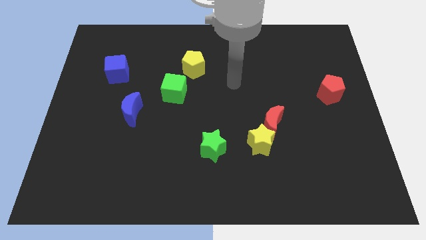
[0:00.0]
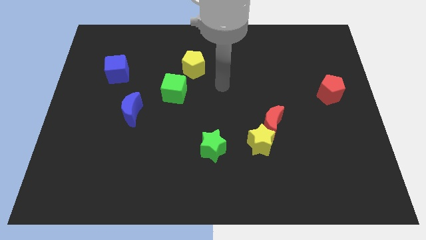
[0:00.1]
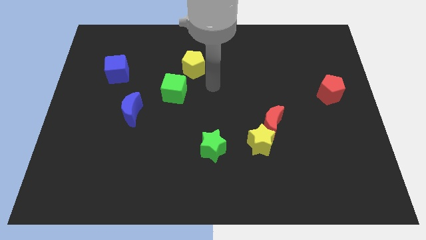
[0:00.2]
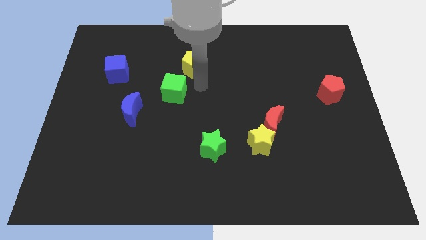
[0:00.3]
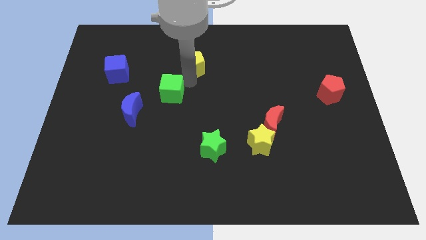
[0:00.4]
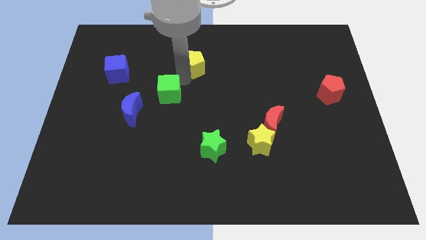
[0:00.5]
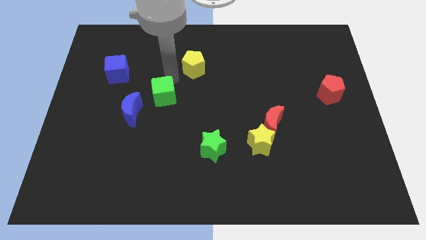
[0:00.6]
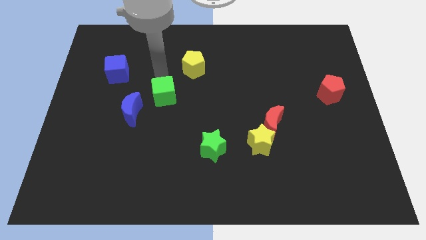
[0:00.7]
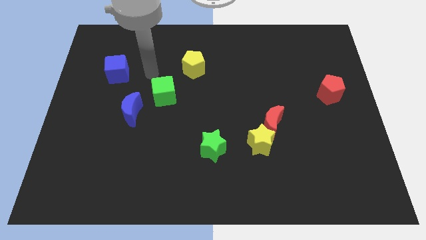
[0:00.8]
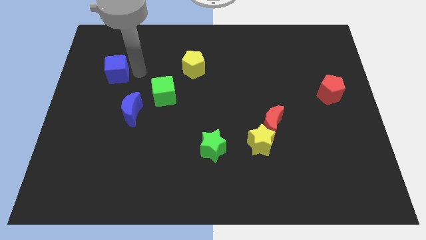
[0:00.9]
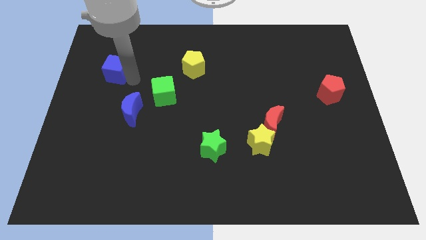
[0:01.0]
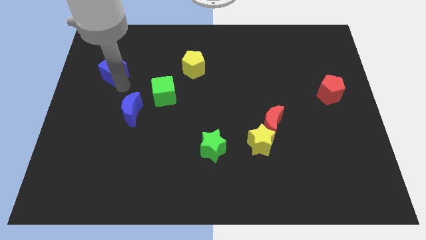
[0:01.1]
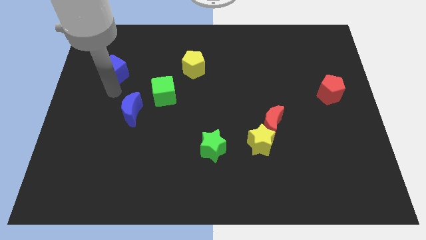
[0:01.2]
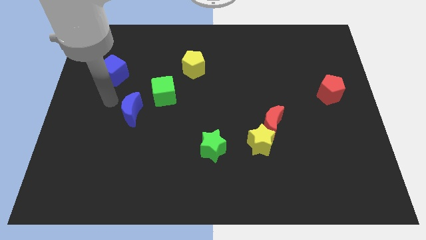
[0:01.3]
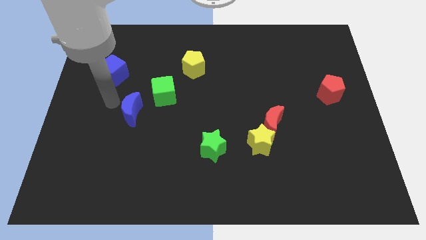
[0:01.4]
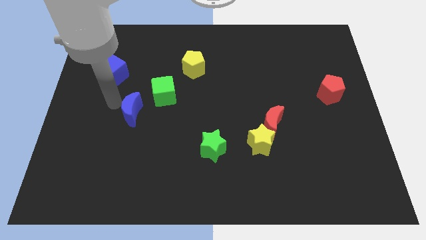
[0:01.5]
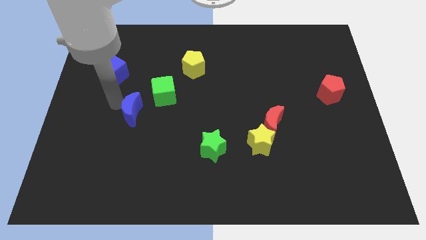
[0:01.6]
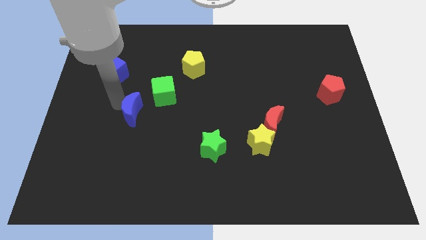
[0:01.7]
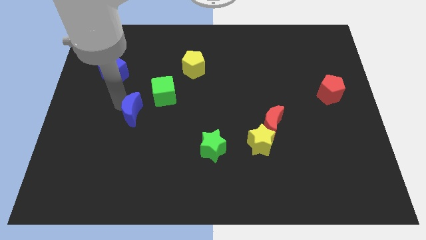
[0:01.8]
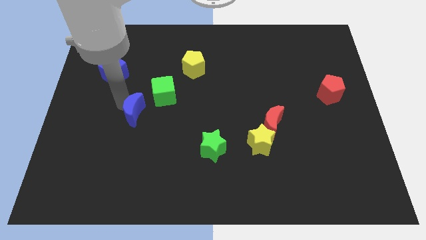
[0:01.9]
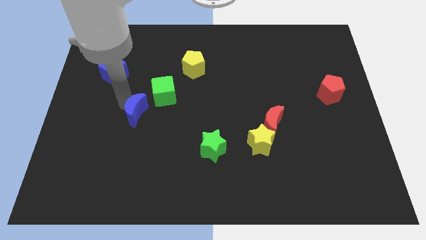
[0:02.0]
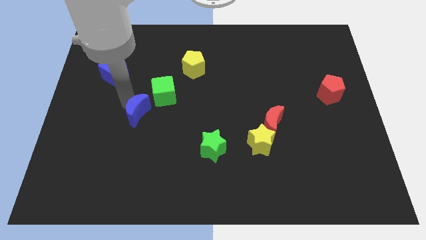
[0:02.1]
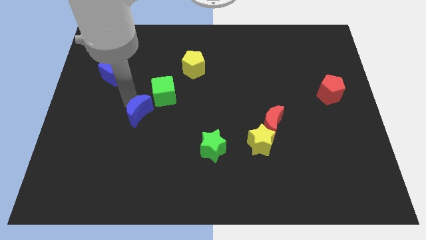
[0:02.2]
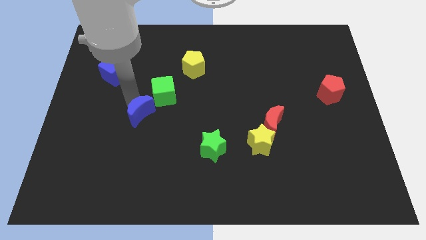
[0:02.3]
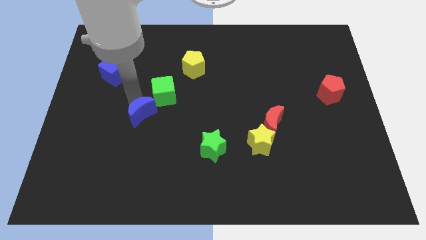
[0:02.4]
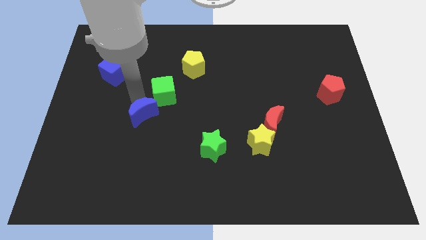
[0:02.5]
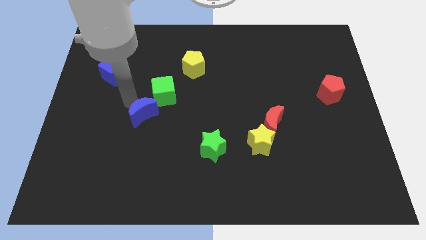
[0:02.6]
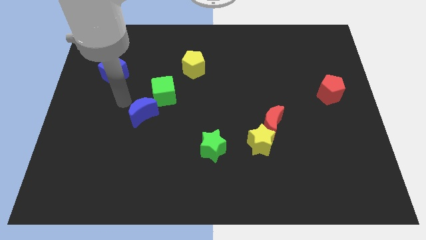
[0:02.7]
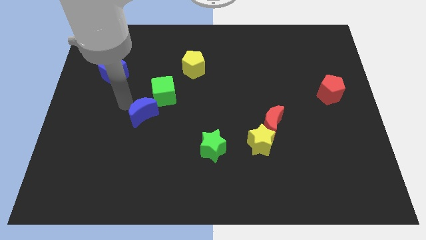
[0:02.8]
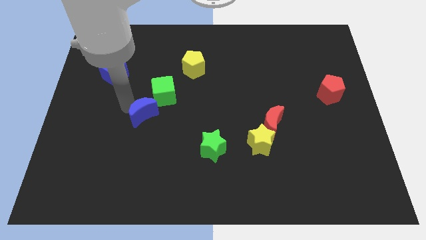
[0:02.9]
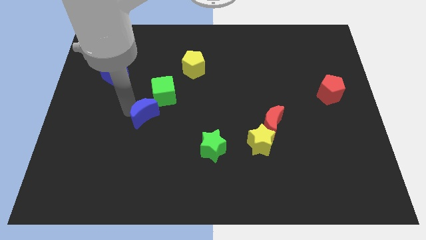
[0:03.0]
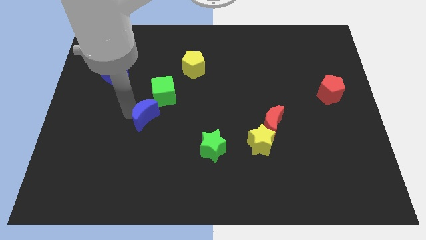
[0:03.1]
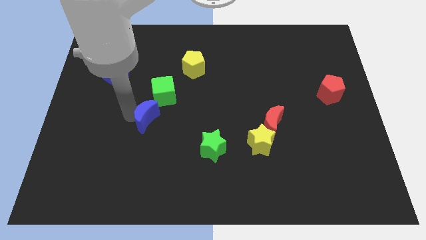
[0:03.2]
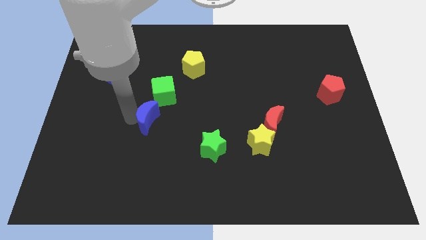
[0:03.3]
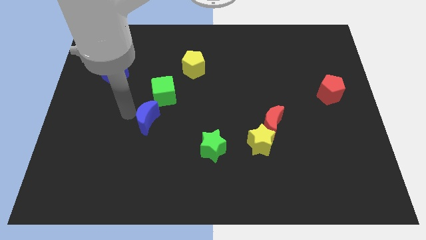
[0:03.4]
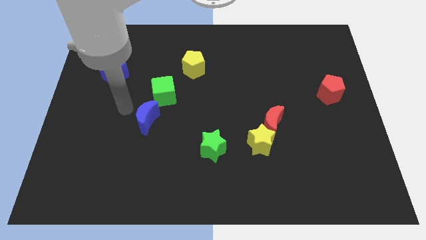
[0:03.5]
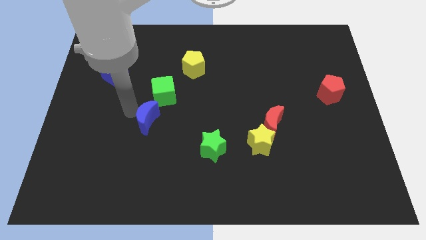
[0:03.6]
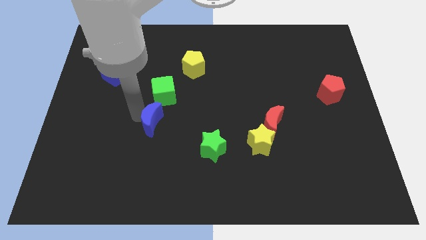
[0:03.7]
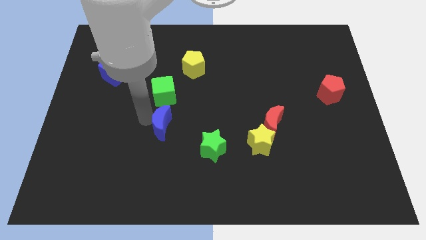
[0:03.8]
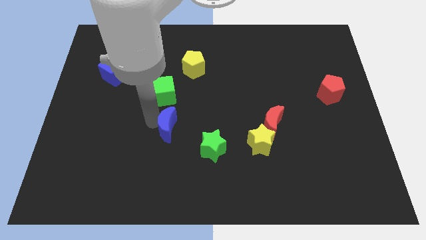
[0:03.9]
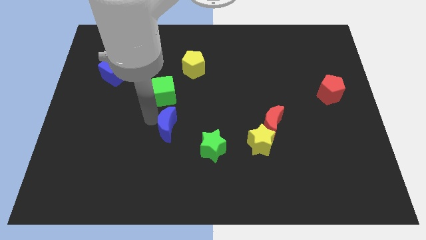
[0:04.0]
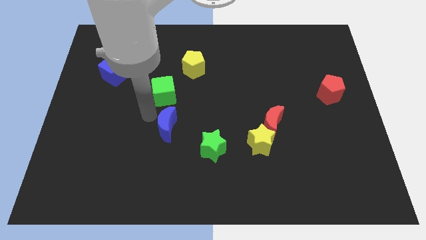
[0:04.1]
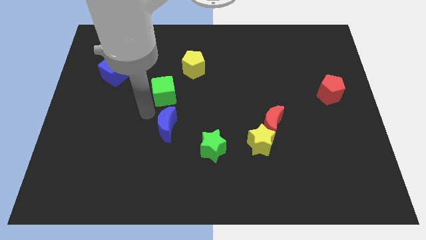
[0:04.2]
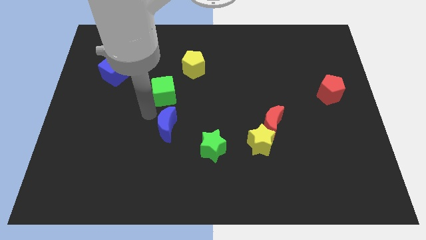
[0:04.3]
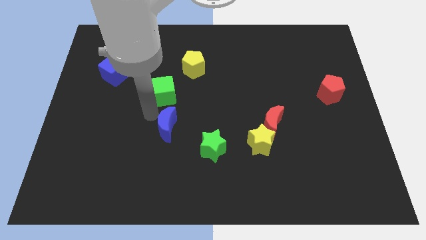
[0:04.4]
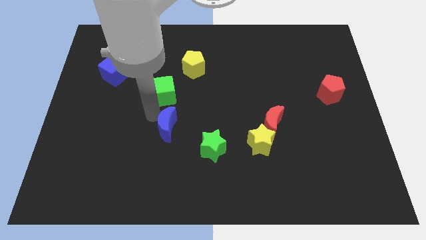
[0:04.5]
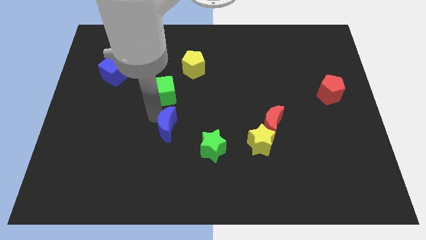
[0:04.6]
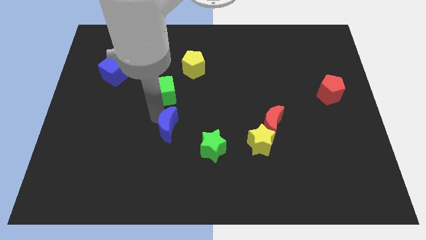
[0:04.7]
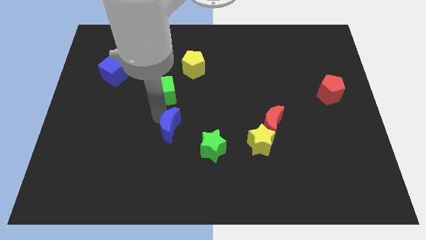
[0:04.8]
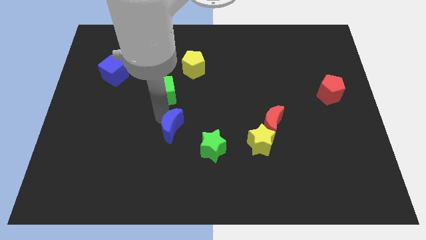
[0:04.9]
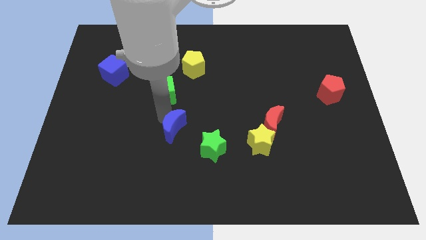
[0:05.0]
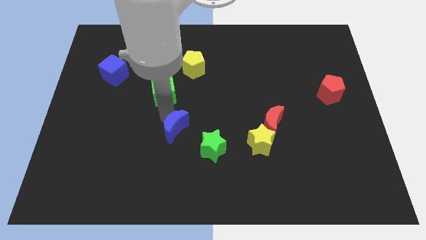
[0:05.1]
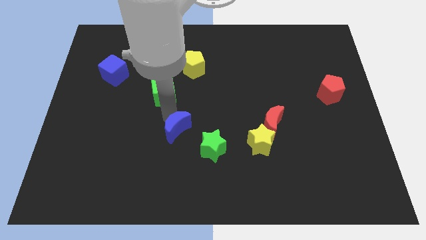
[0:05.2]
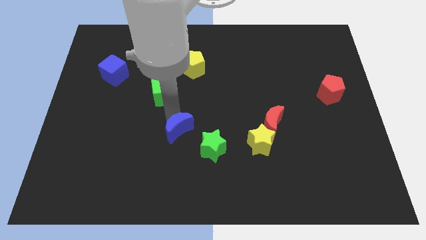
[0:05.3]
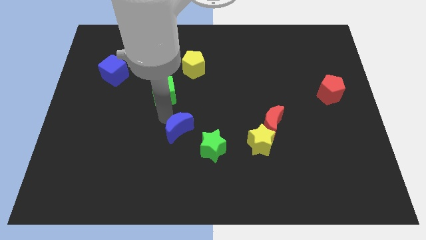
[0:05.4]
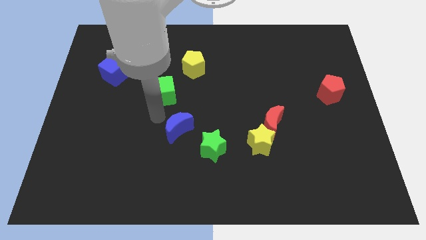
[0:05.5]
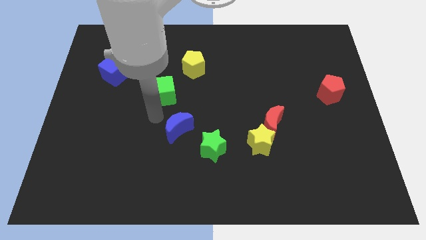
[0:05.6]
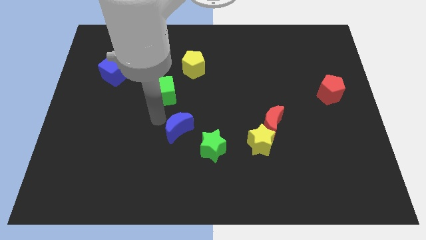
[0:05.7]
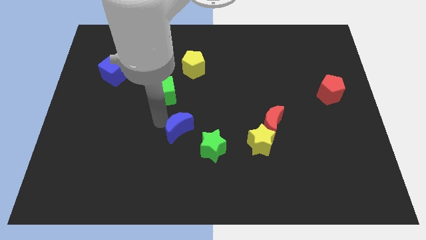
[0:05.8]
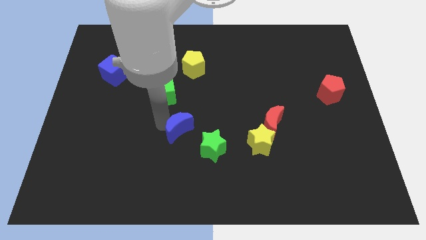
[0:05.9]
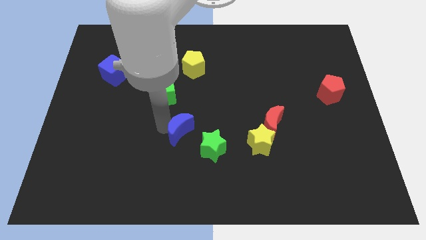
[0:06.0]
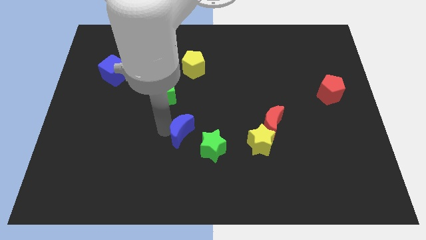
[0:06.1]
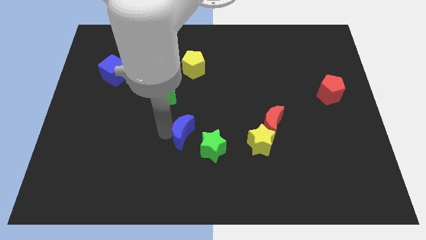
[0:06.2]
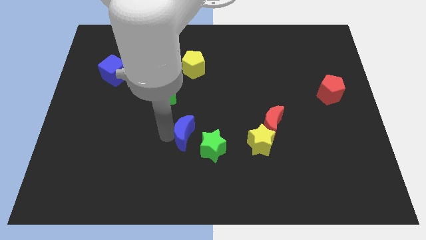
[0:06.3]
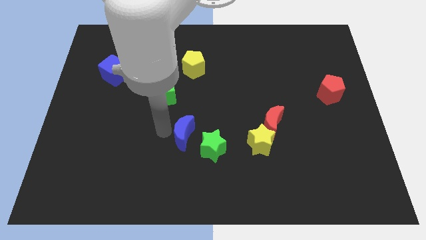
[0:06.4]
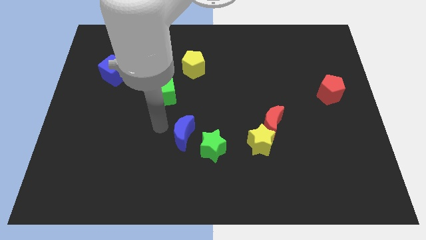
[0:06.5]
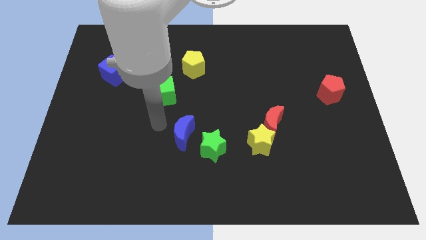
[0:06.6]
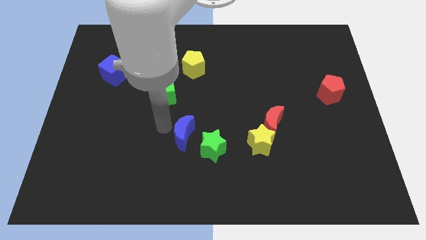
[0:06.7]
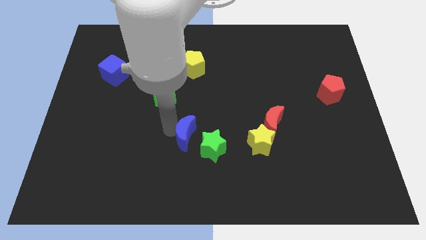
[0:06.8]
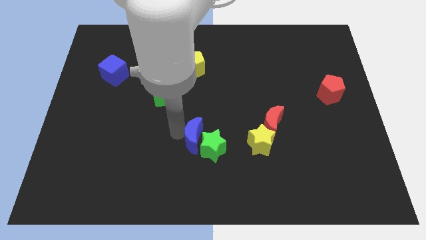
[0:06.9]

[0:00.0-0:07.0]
put the blue moon towards the green star

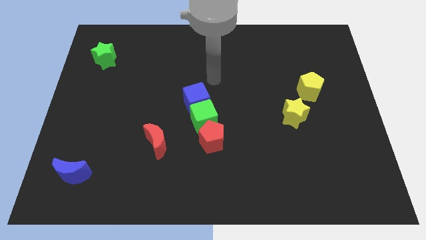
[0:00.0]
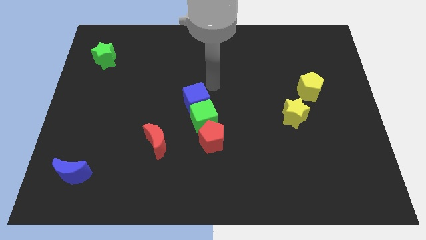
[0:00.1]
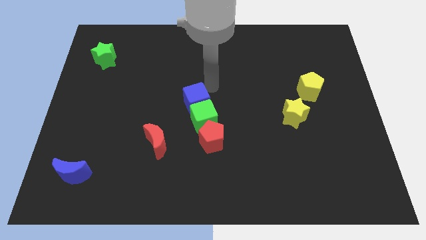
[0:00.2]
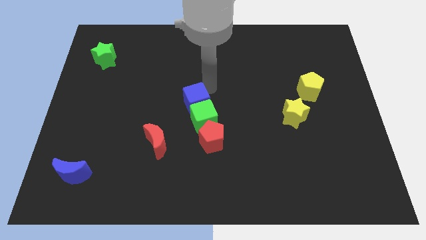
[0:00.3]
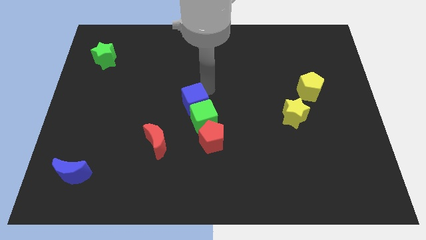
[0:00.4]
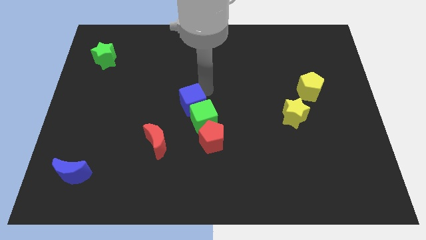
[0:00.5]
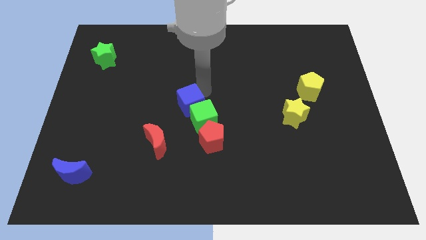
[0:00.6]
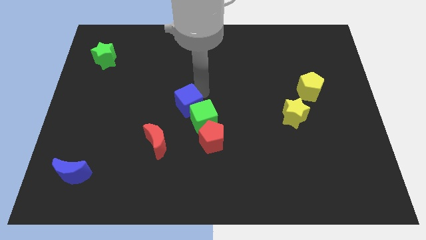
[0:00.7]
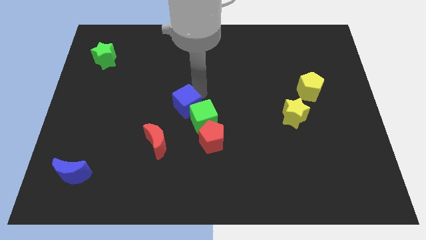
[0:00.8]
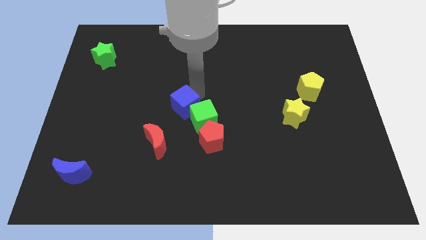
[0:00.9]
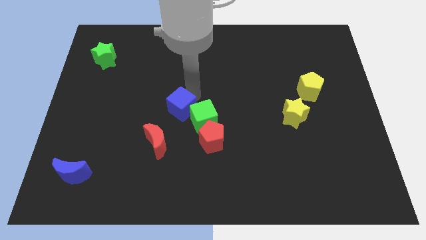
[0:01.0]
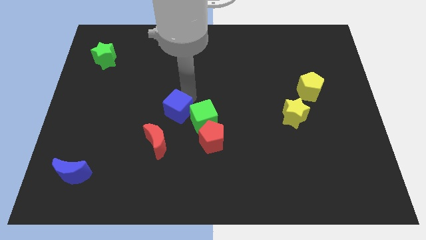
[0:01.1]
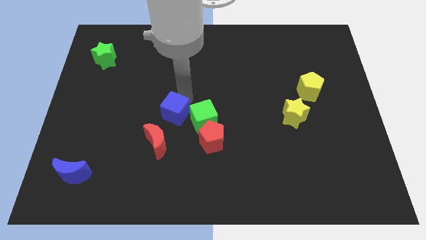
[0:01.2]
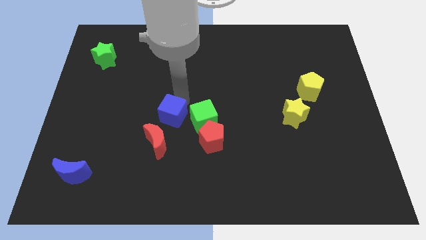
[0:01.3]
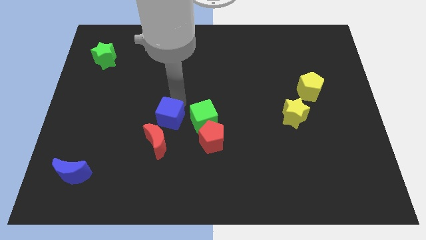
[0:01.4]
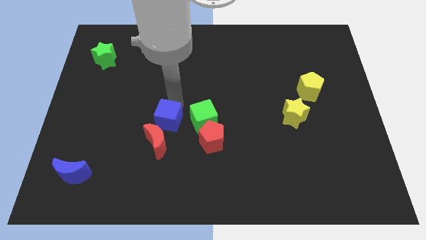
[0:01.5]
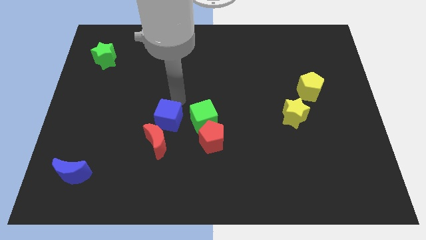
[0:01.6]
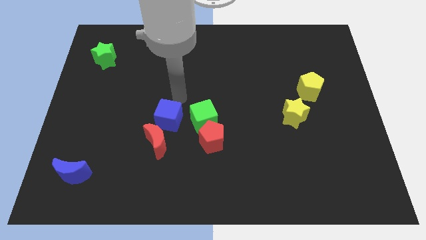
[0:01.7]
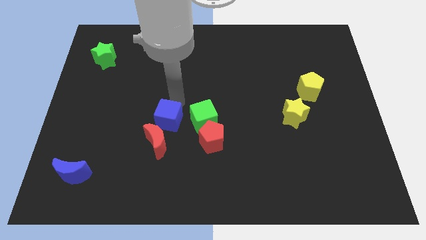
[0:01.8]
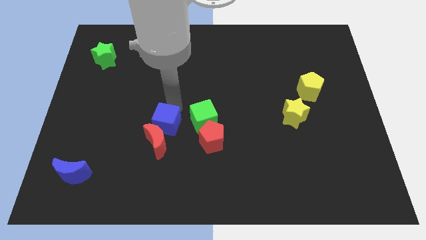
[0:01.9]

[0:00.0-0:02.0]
slide the blue cube next to the red moon
